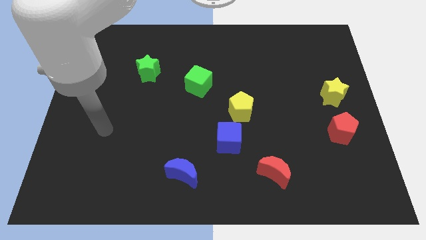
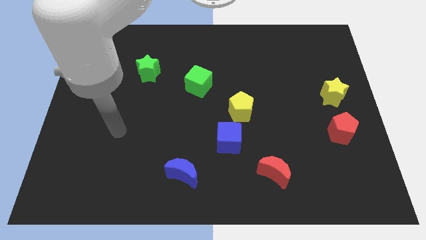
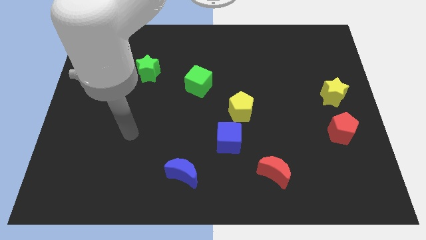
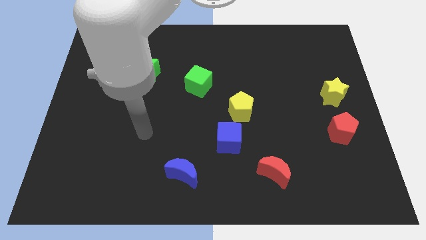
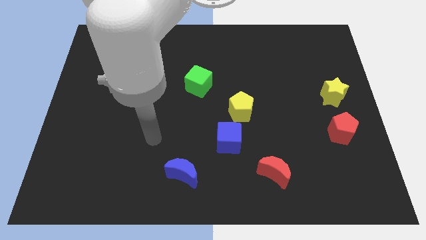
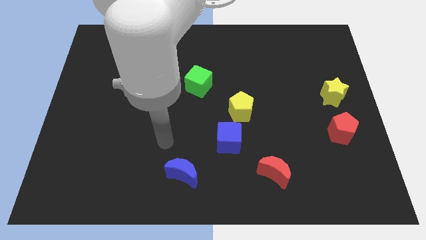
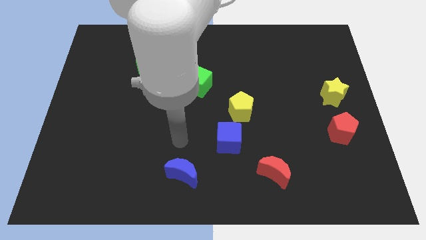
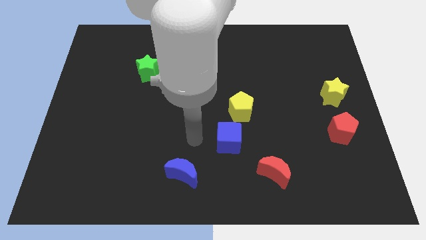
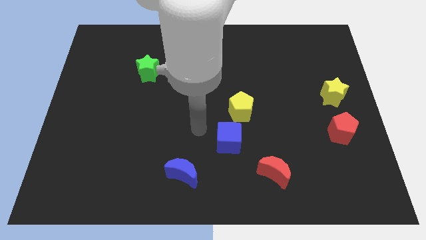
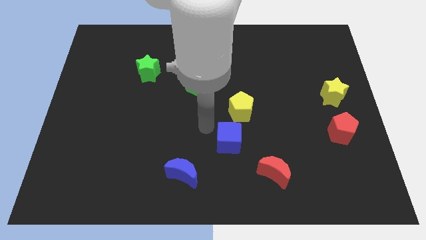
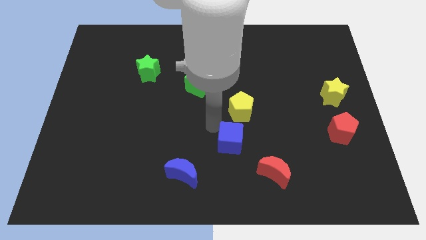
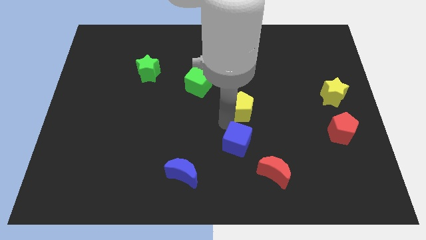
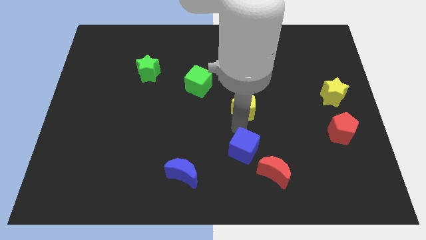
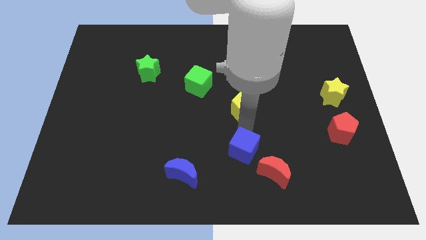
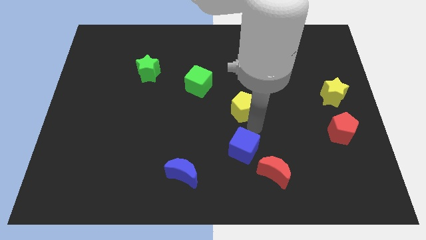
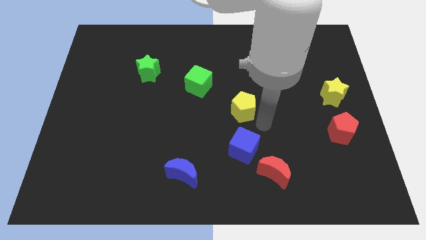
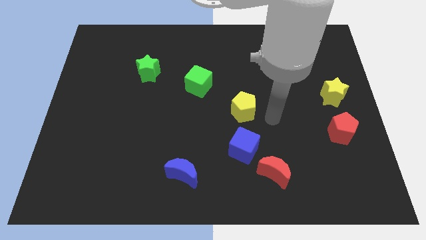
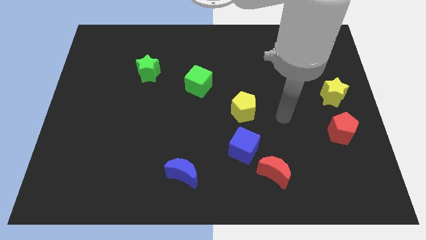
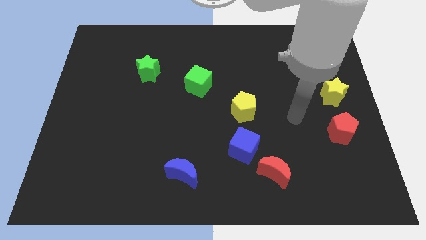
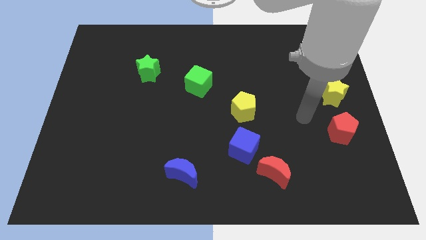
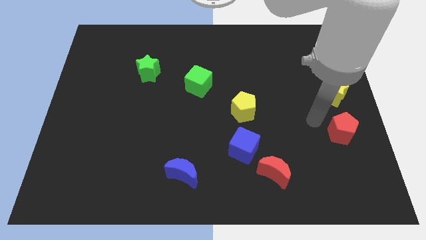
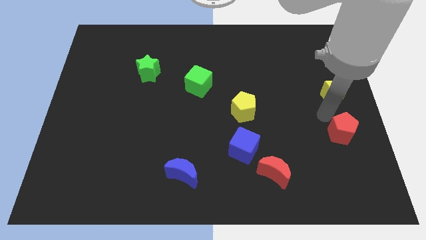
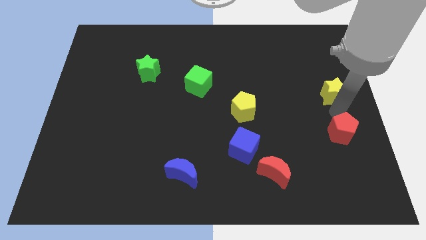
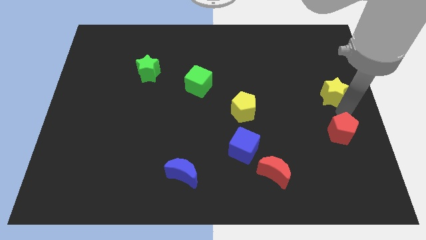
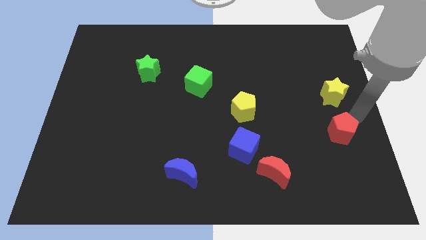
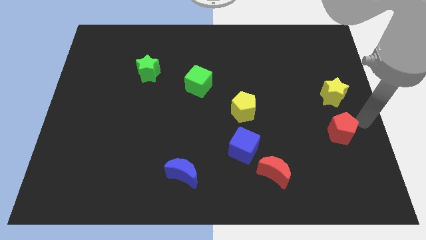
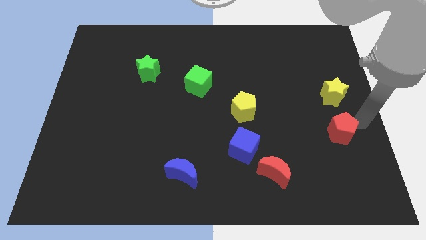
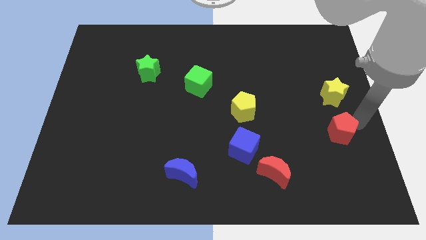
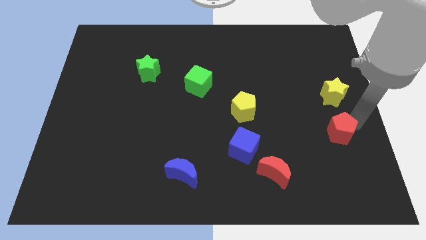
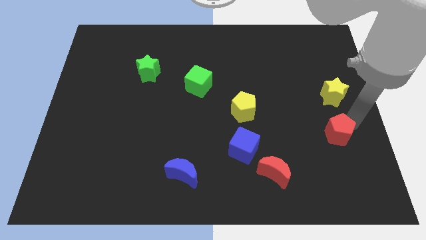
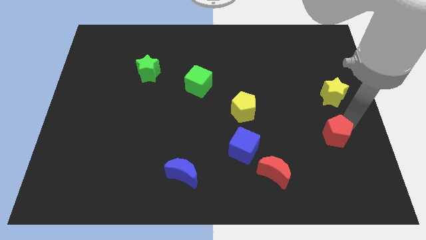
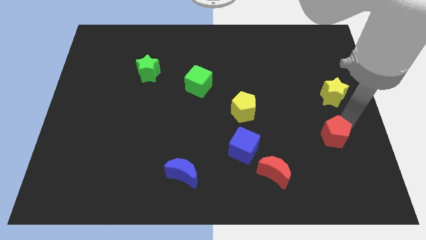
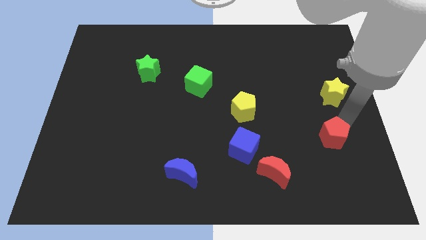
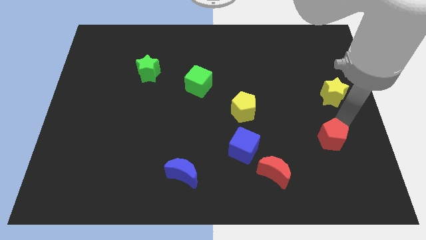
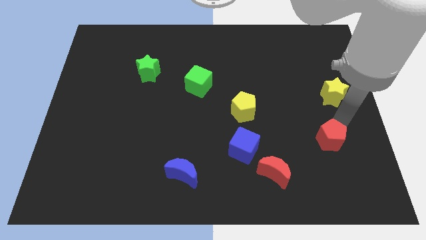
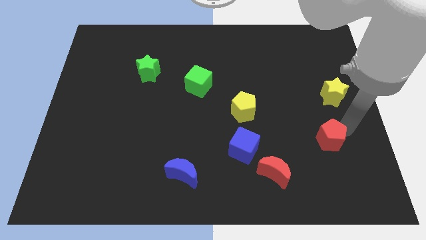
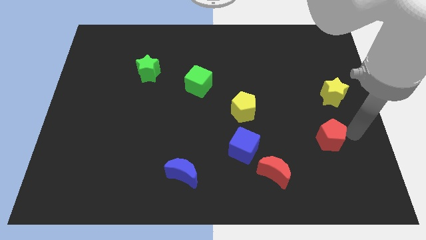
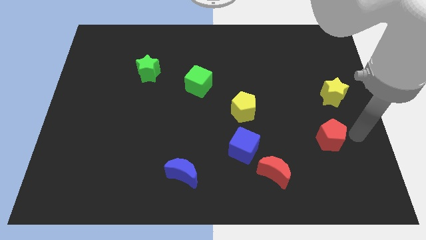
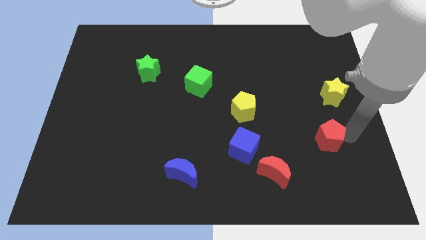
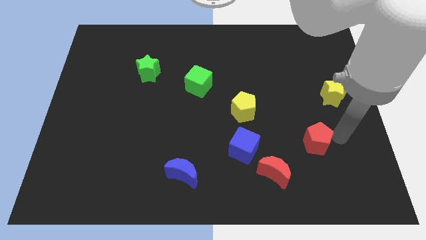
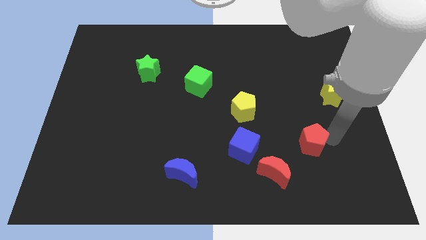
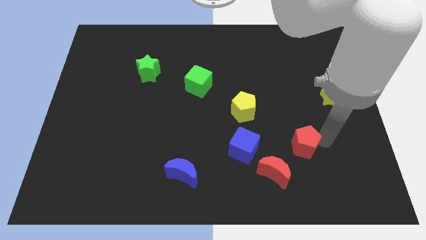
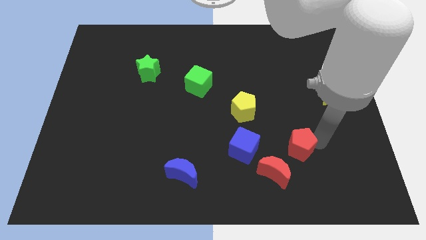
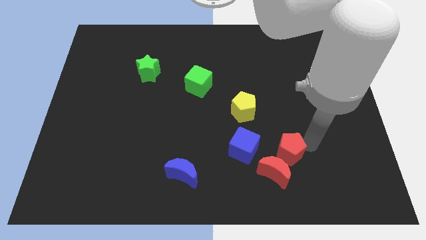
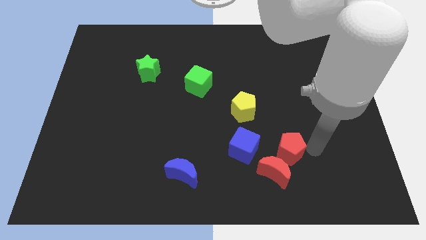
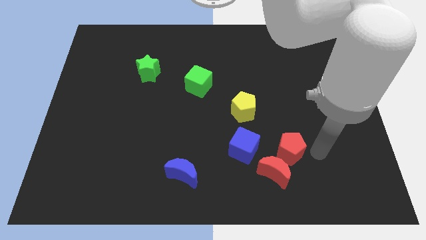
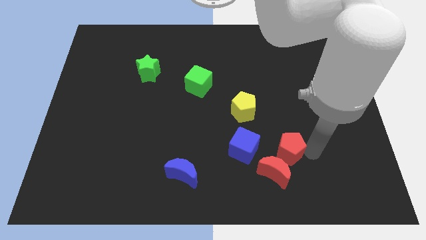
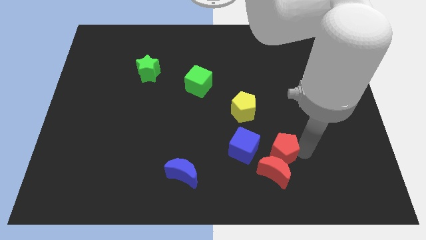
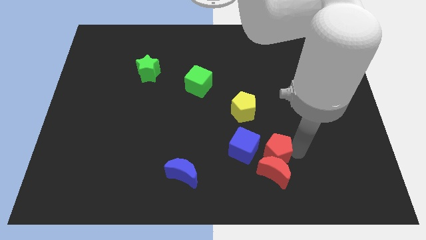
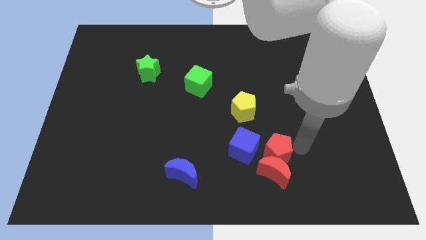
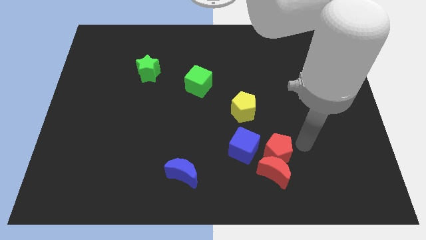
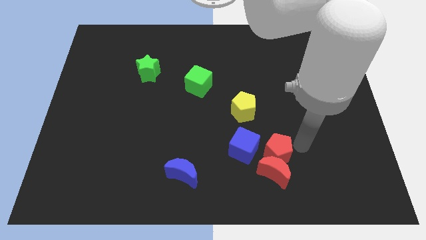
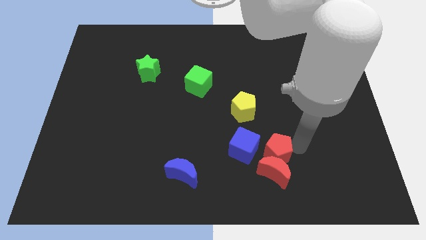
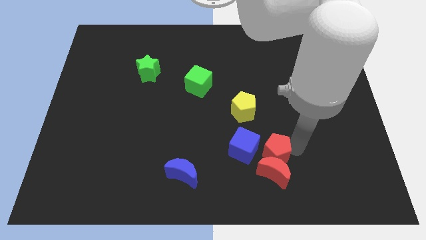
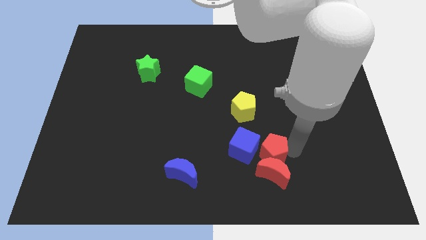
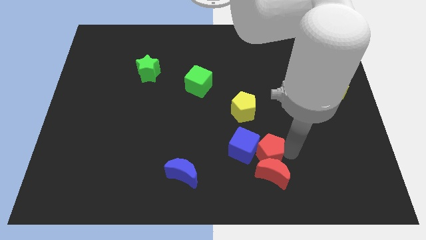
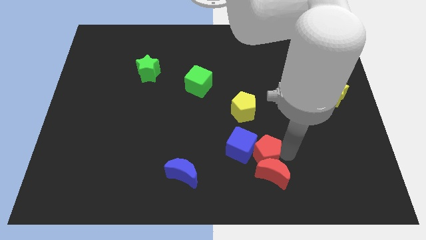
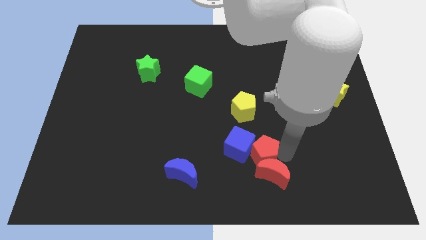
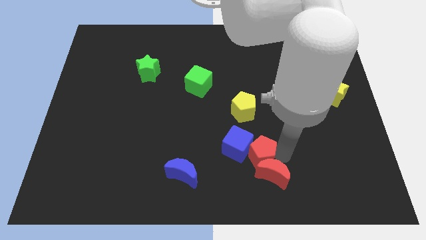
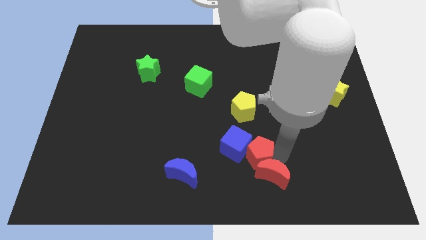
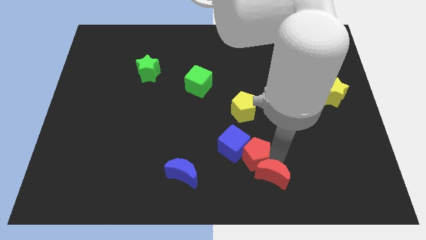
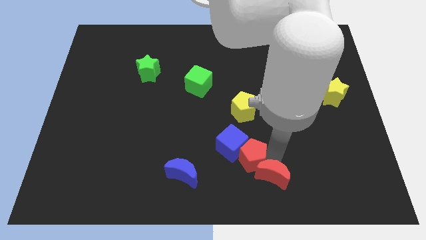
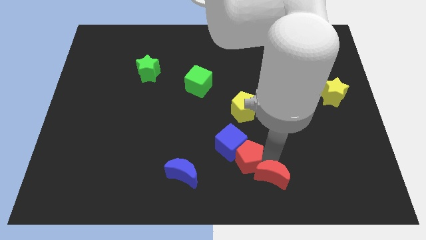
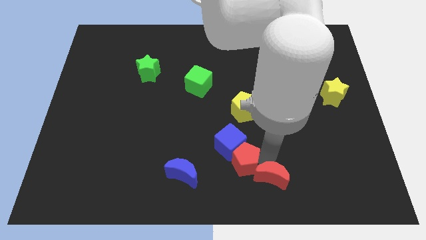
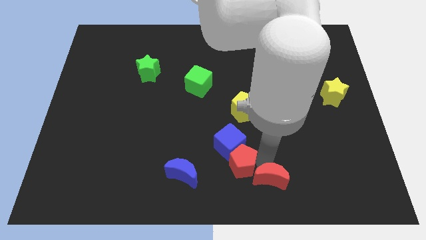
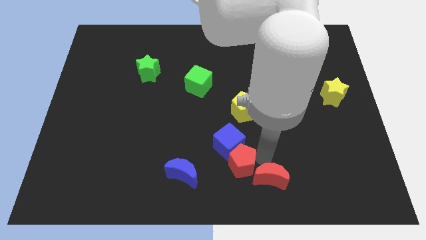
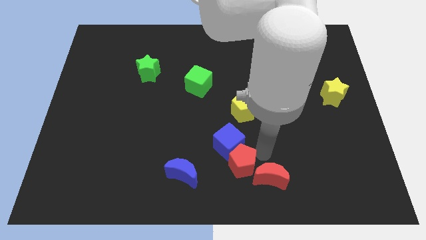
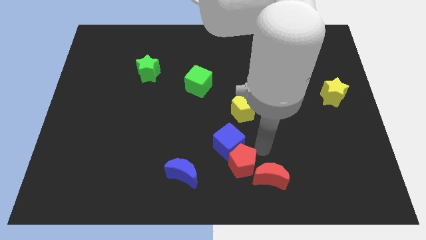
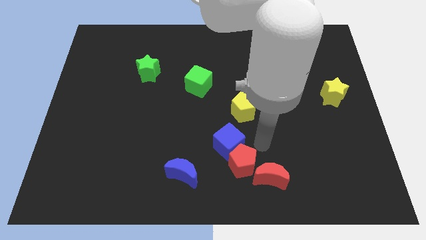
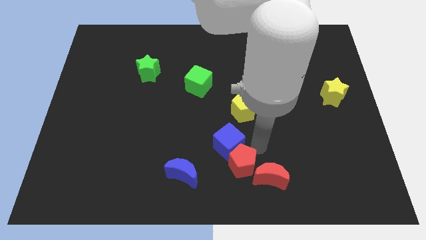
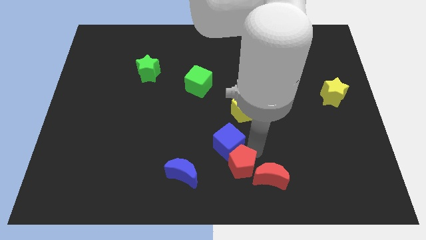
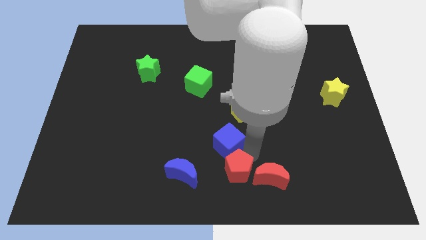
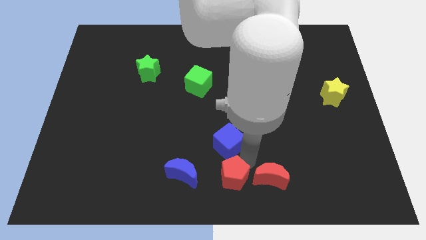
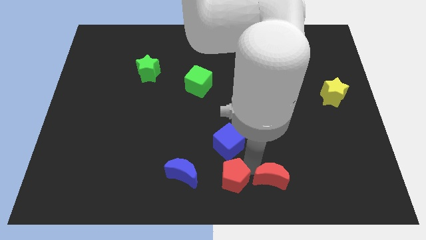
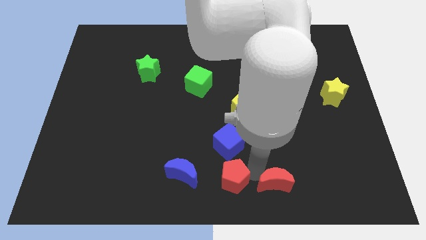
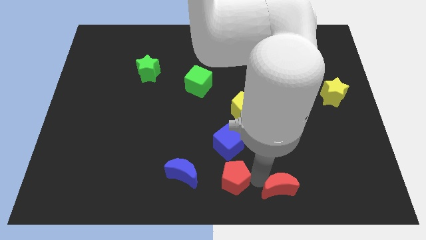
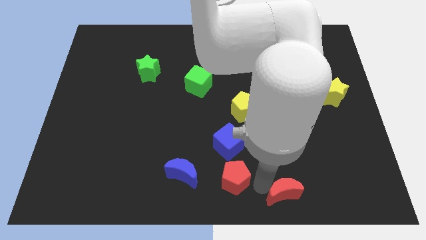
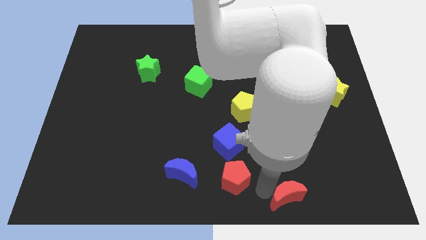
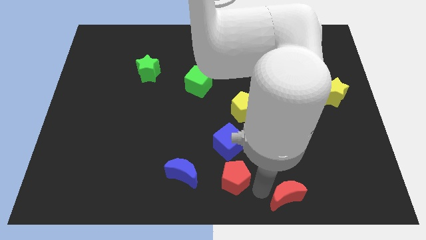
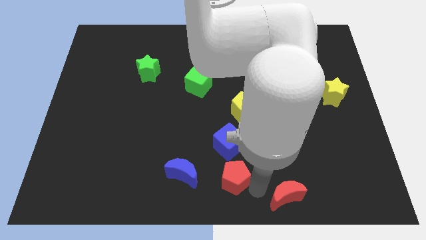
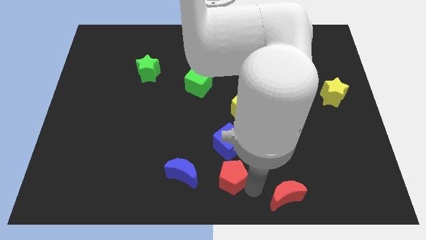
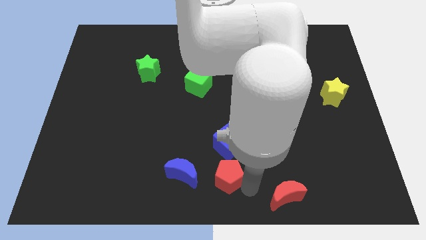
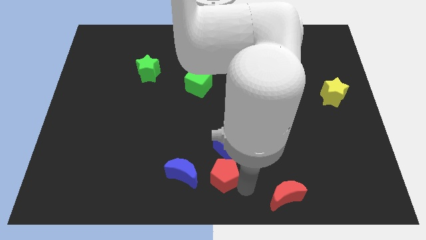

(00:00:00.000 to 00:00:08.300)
move the red pentagon diagonally down and to the left of the blue cube
